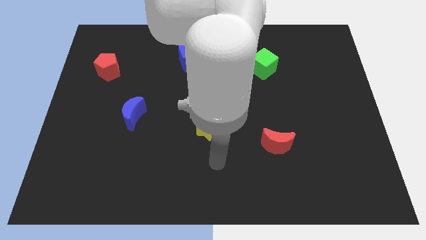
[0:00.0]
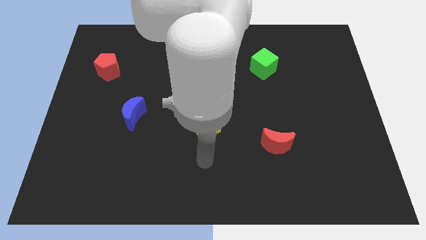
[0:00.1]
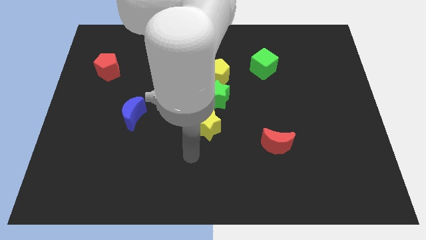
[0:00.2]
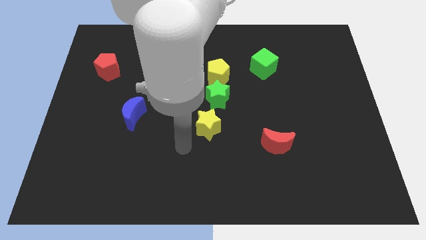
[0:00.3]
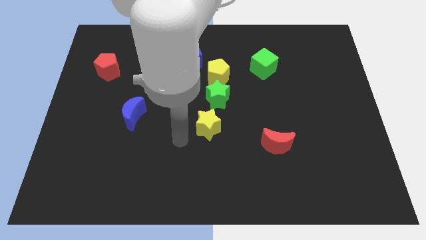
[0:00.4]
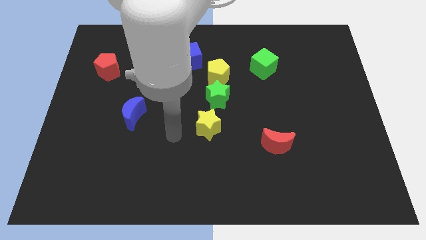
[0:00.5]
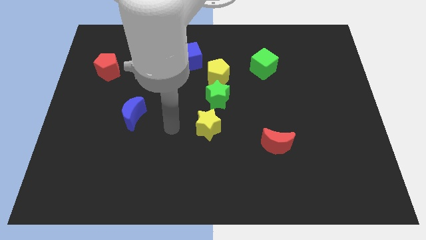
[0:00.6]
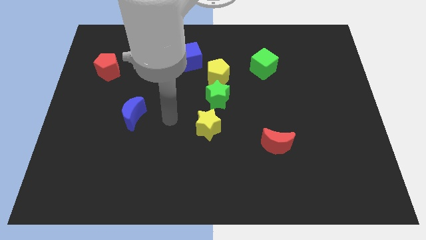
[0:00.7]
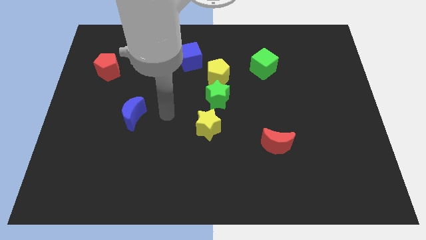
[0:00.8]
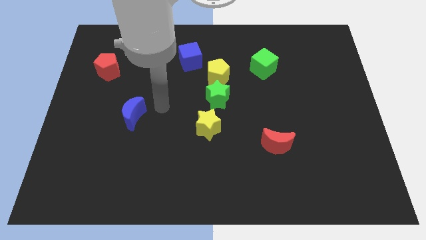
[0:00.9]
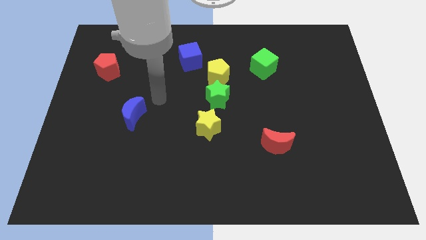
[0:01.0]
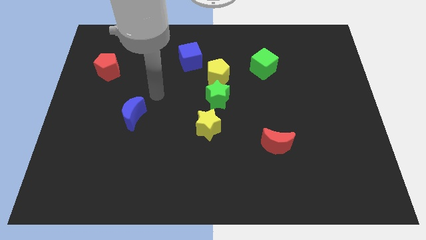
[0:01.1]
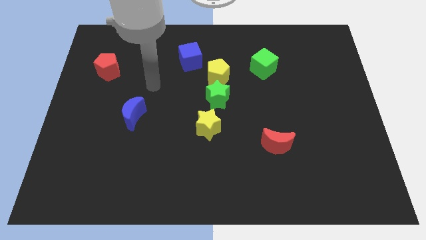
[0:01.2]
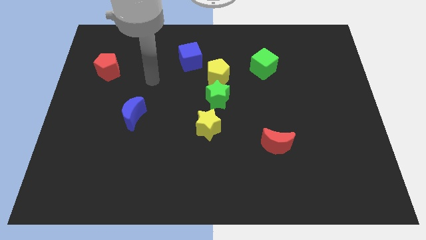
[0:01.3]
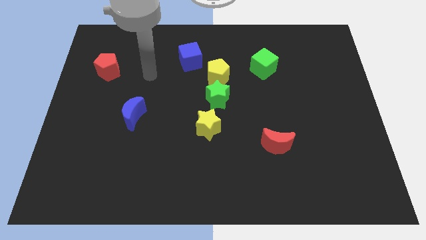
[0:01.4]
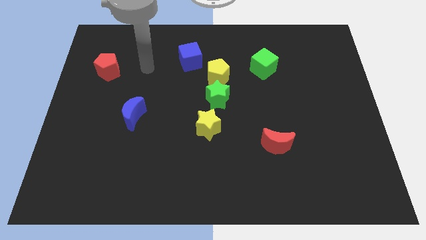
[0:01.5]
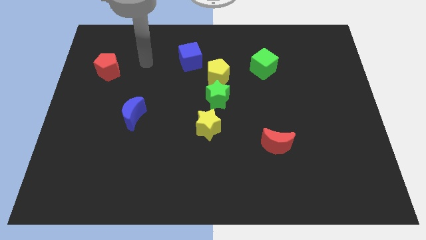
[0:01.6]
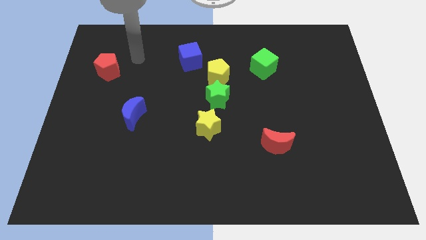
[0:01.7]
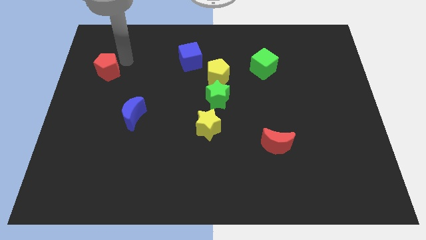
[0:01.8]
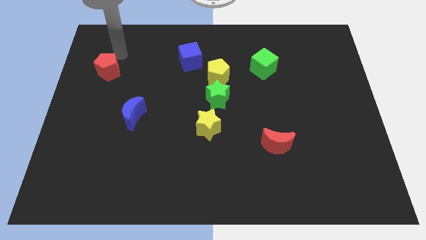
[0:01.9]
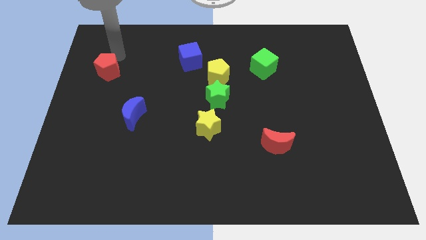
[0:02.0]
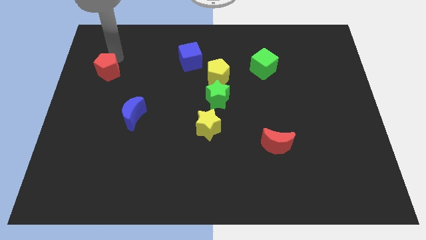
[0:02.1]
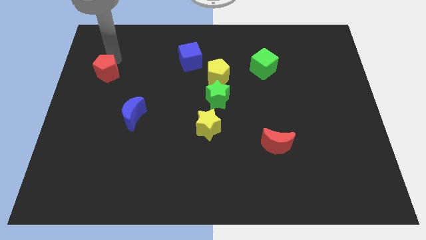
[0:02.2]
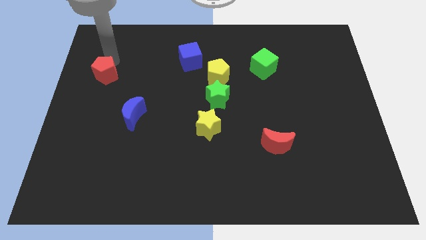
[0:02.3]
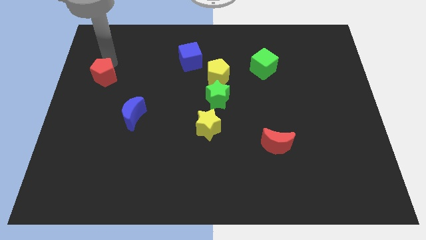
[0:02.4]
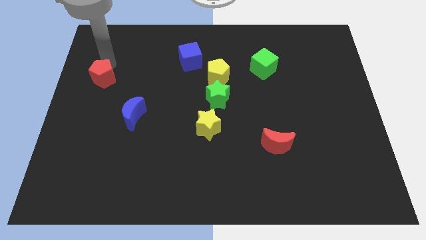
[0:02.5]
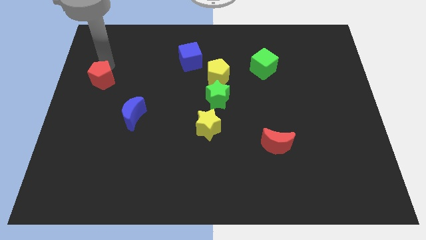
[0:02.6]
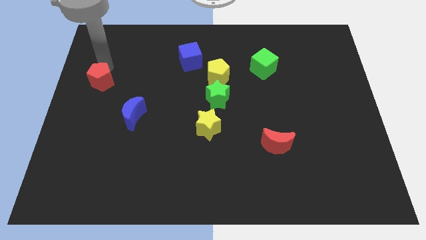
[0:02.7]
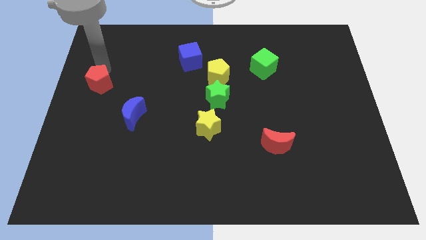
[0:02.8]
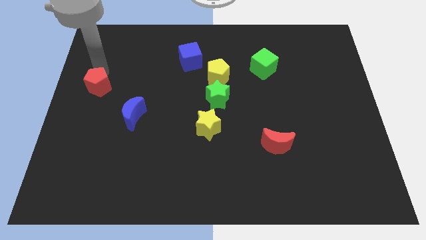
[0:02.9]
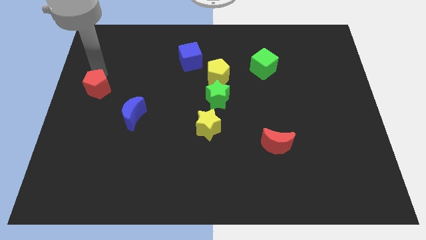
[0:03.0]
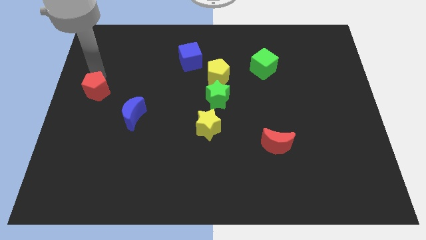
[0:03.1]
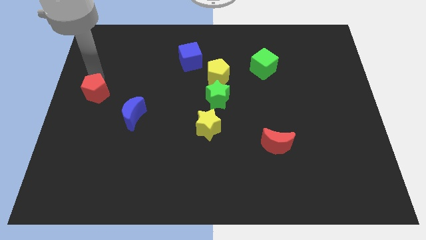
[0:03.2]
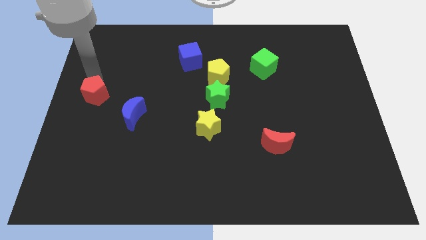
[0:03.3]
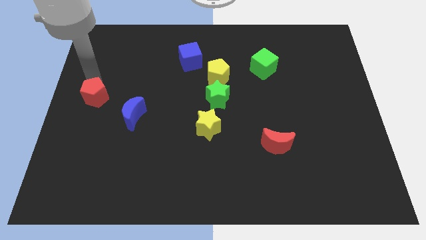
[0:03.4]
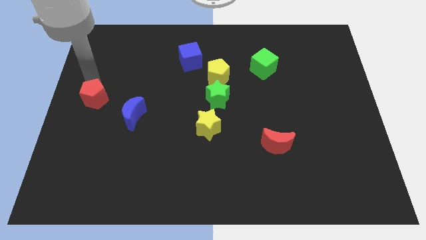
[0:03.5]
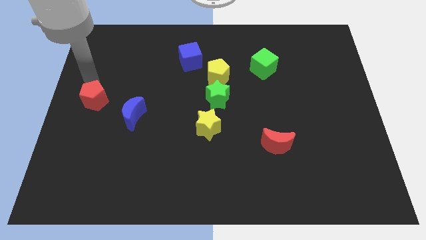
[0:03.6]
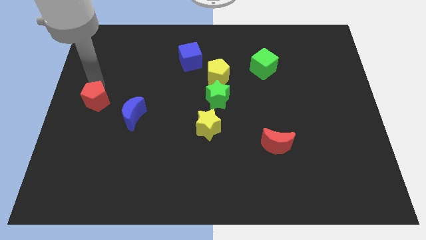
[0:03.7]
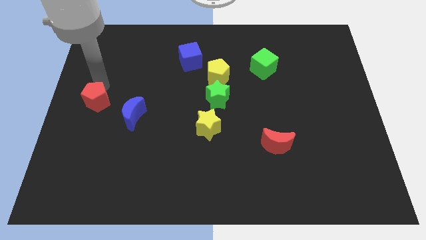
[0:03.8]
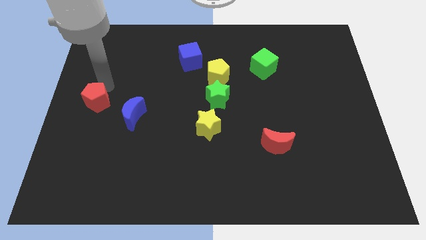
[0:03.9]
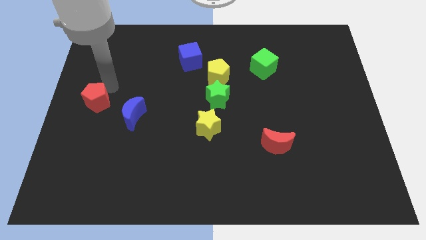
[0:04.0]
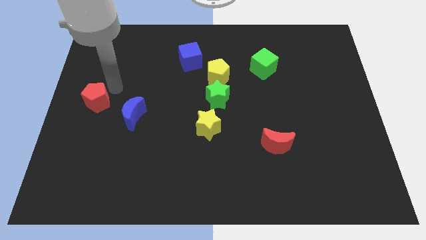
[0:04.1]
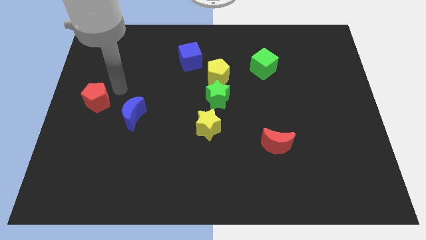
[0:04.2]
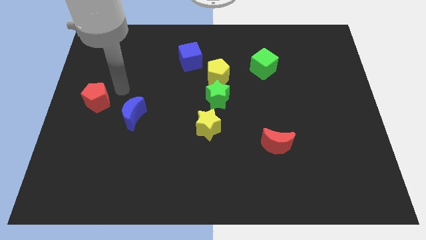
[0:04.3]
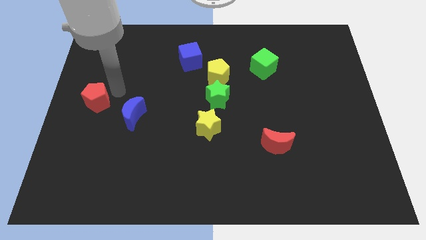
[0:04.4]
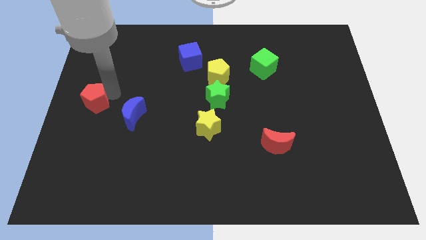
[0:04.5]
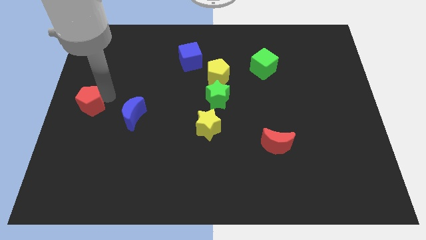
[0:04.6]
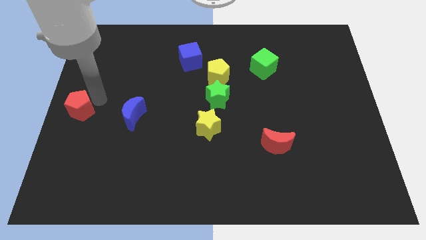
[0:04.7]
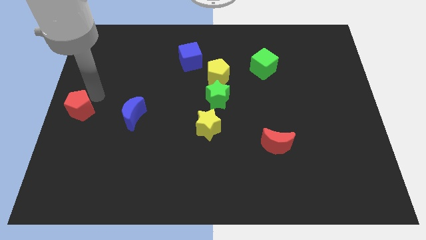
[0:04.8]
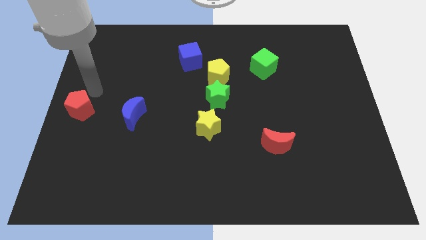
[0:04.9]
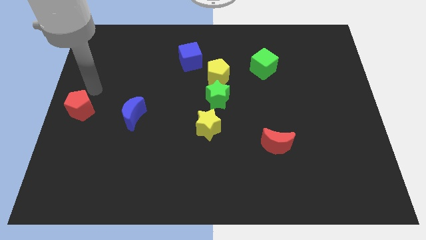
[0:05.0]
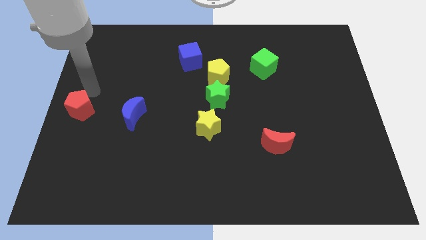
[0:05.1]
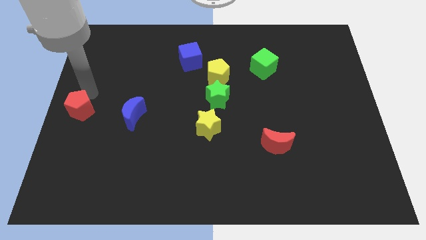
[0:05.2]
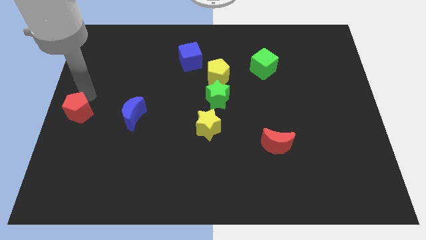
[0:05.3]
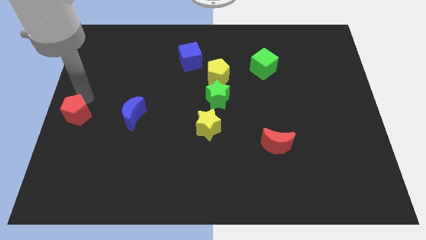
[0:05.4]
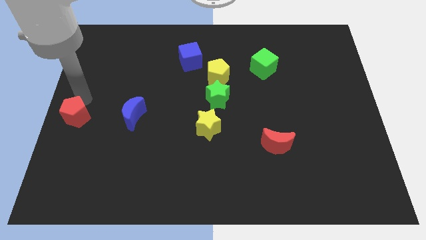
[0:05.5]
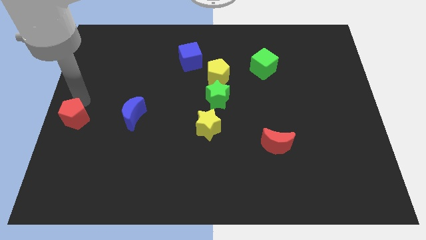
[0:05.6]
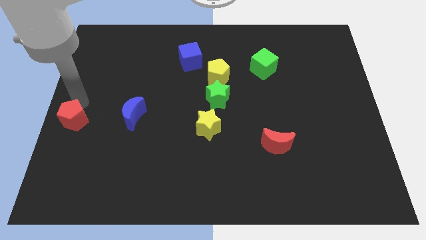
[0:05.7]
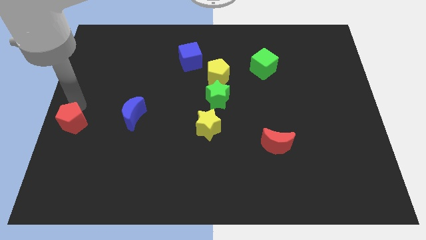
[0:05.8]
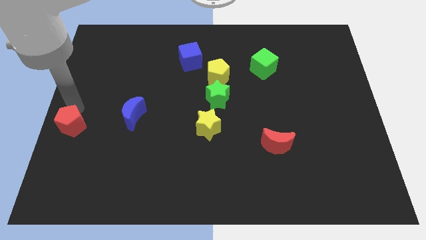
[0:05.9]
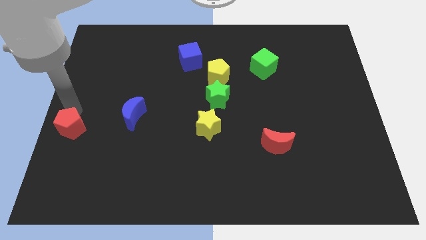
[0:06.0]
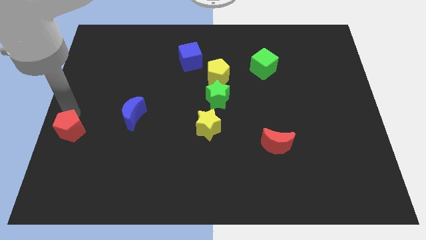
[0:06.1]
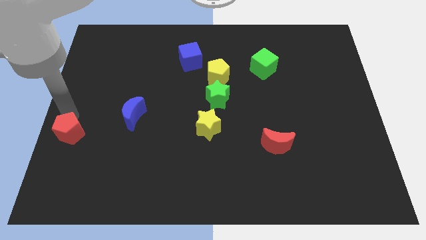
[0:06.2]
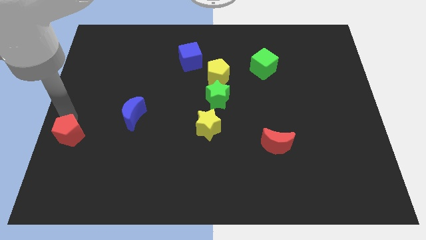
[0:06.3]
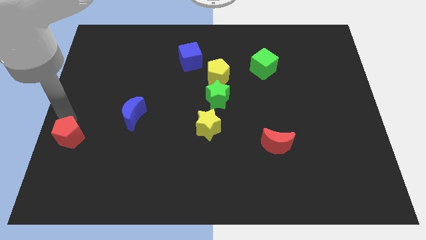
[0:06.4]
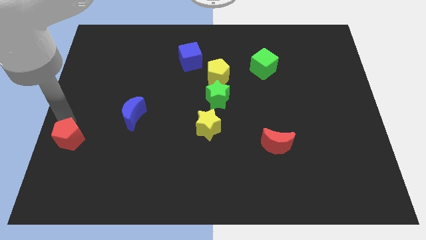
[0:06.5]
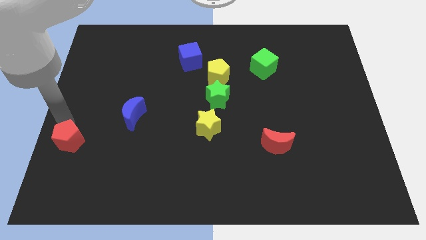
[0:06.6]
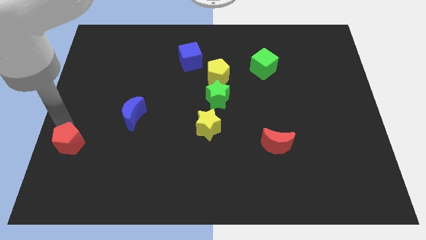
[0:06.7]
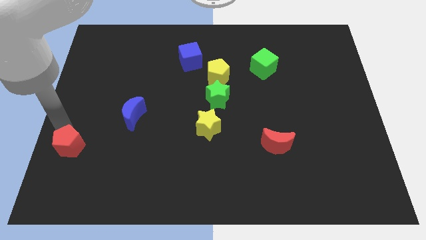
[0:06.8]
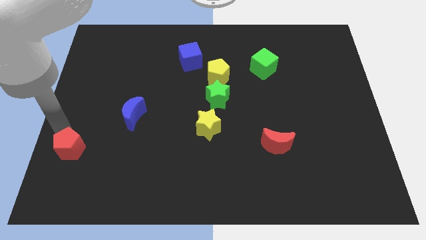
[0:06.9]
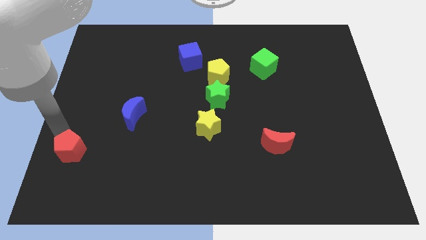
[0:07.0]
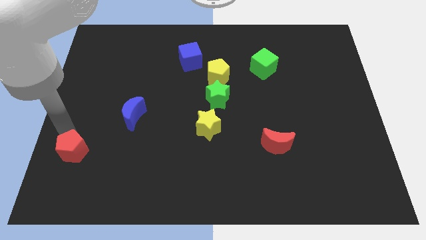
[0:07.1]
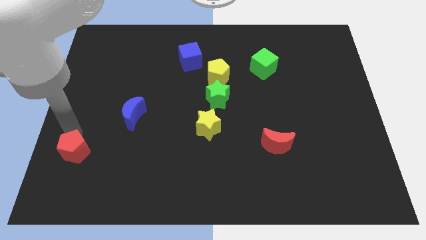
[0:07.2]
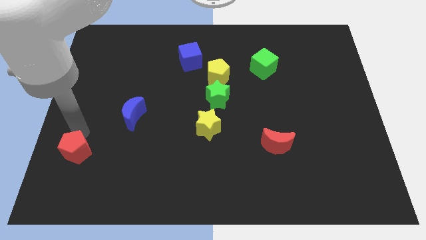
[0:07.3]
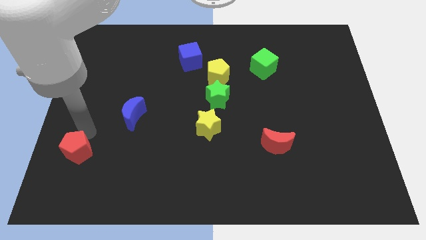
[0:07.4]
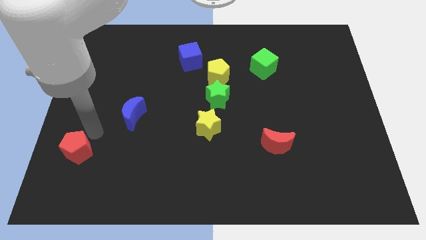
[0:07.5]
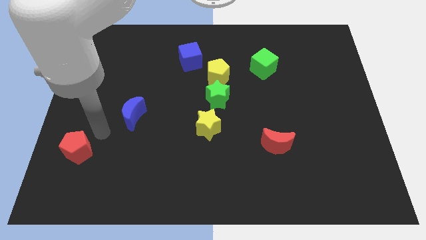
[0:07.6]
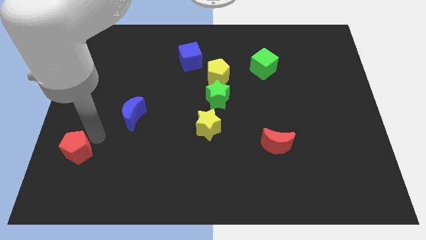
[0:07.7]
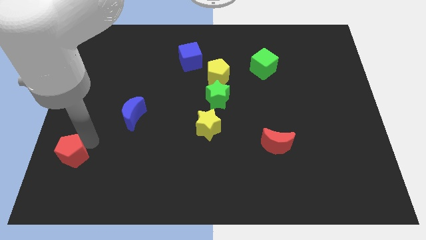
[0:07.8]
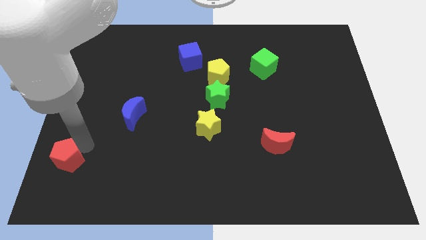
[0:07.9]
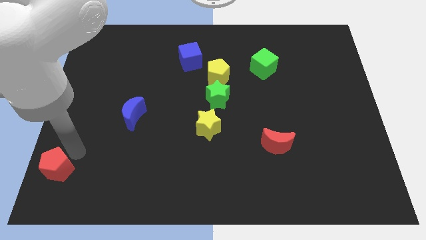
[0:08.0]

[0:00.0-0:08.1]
push the red pentagon to the lower left corner
